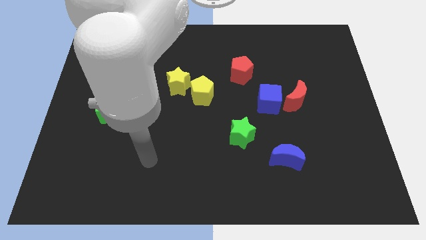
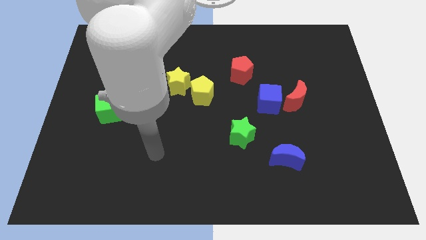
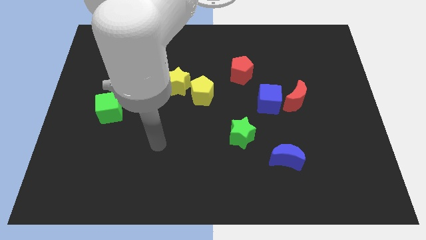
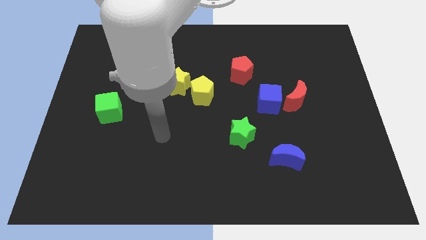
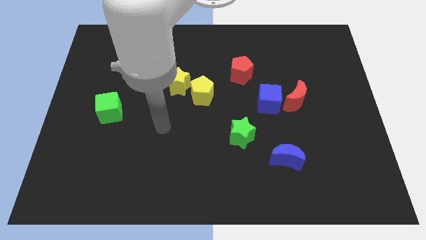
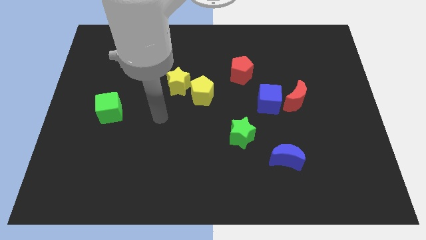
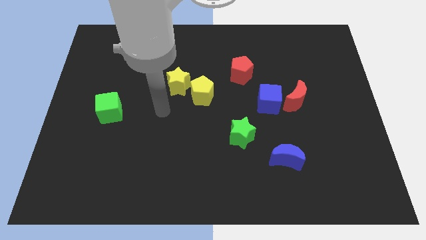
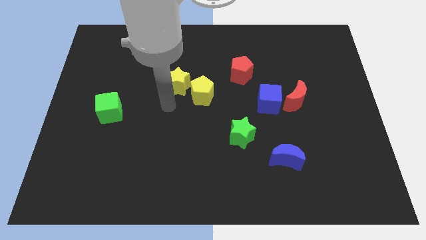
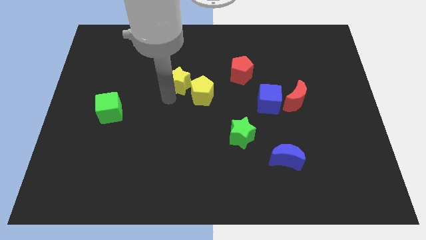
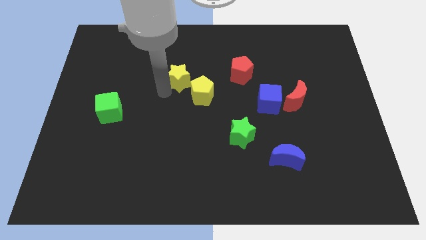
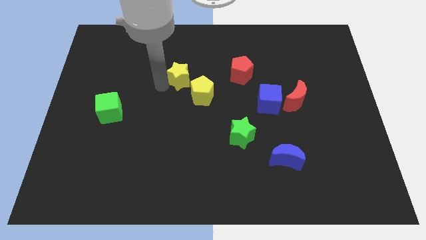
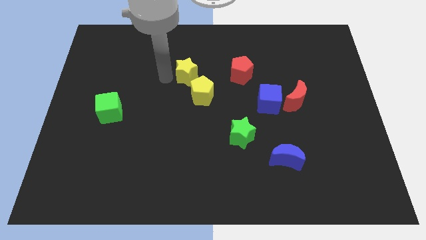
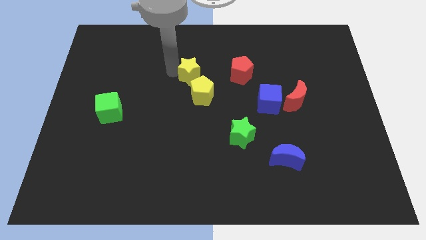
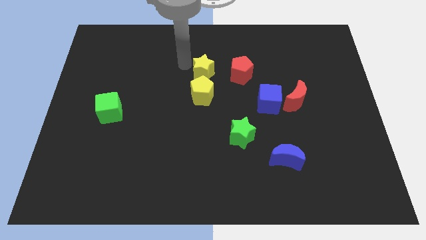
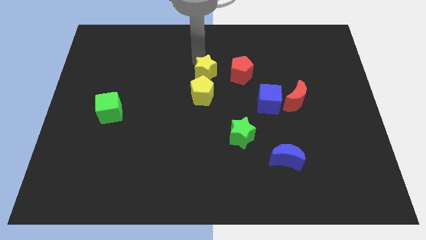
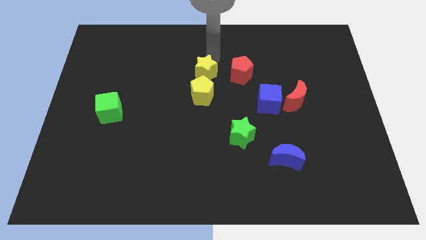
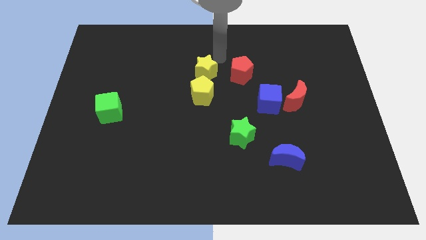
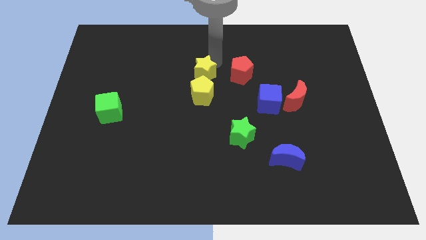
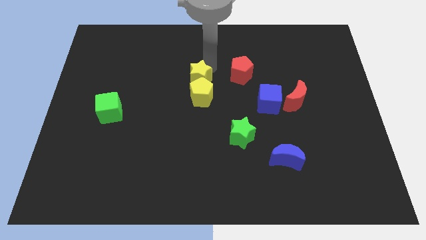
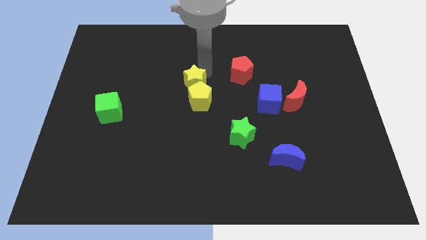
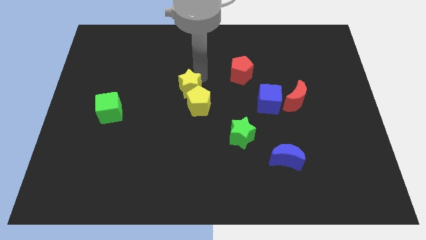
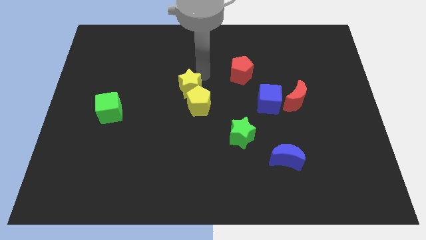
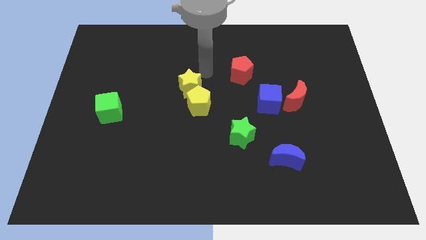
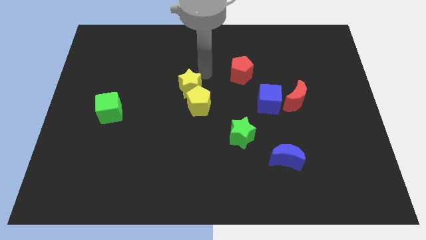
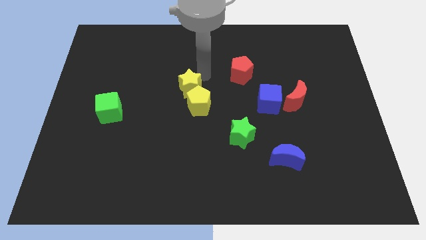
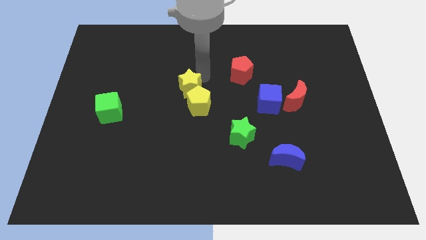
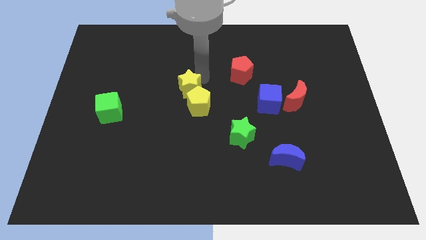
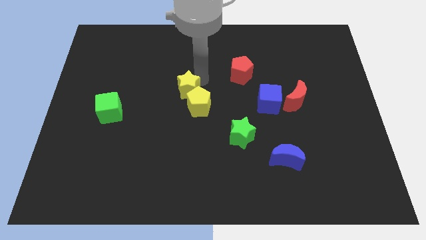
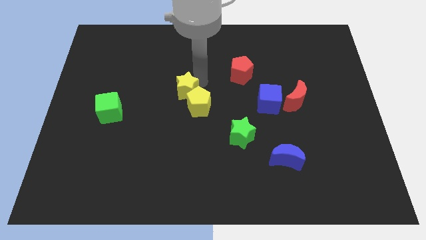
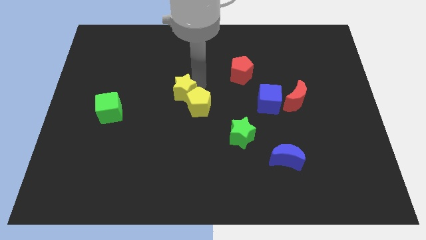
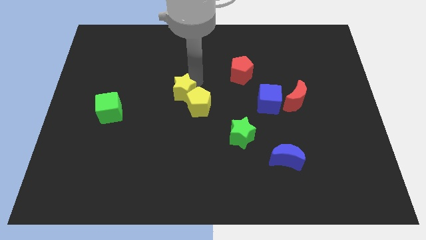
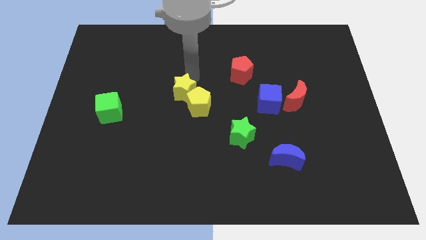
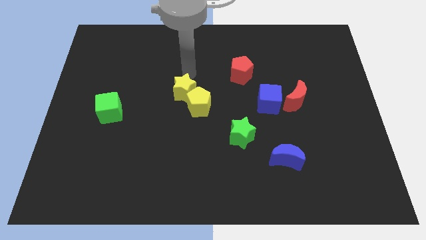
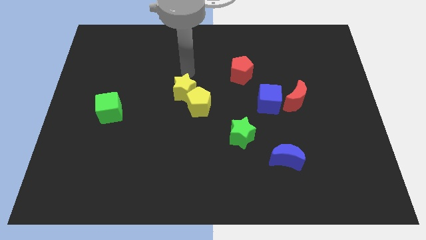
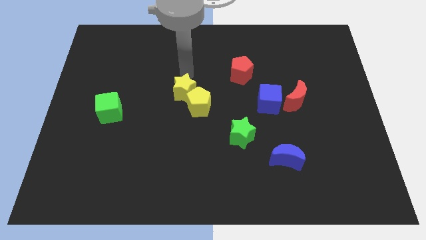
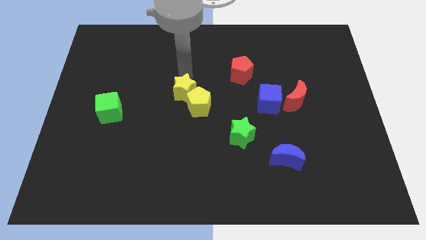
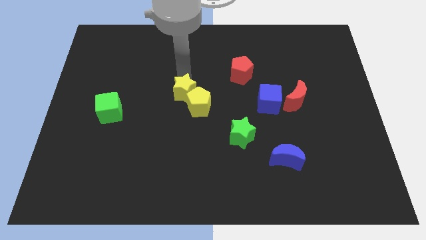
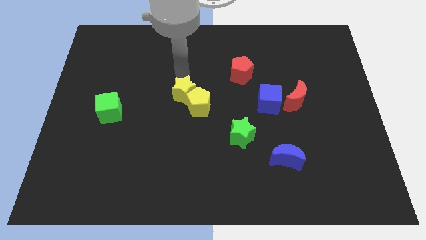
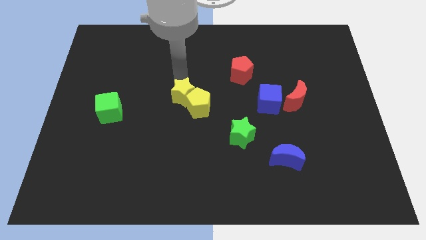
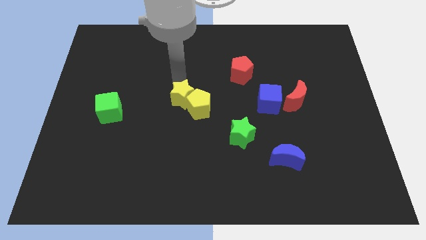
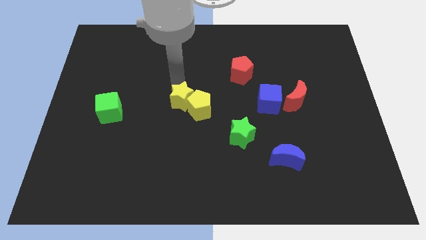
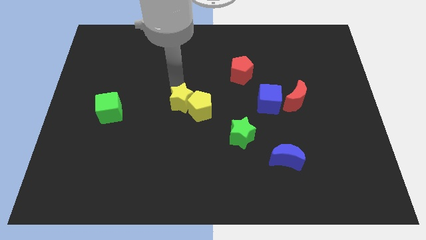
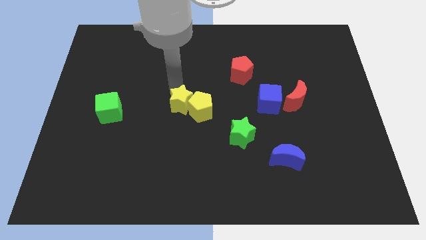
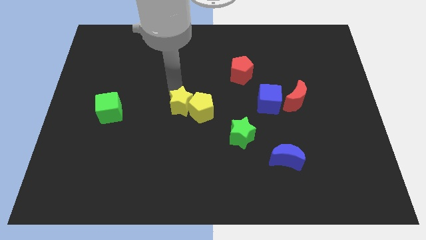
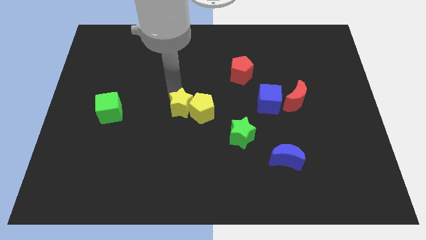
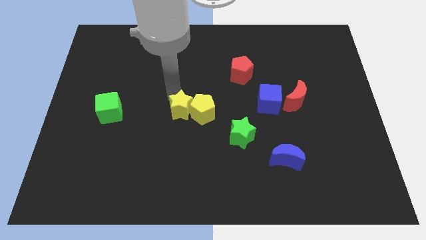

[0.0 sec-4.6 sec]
slide the yellow star down a bit

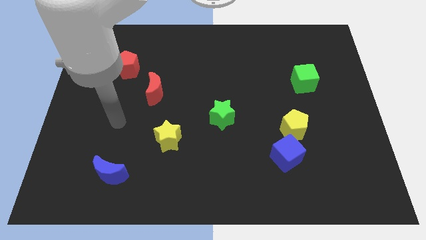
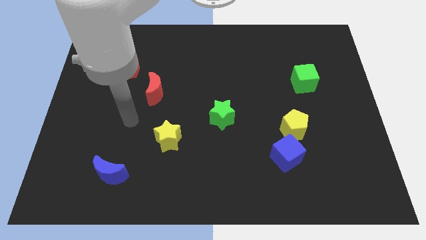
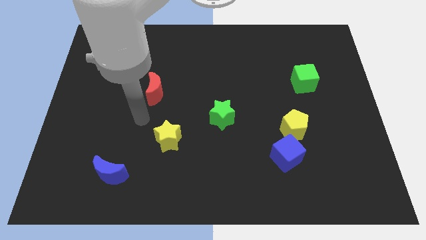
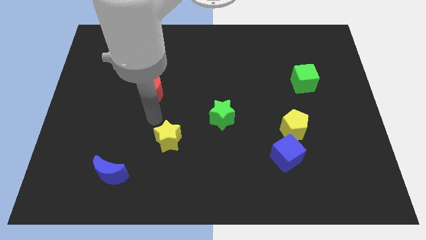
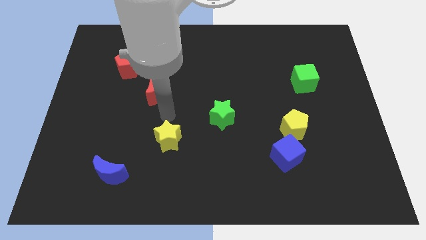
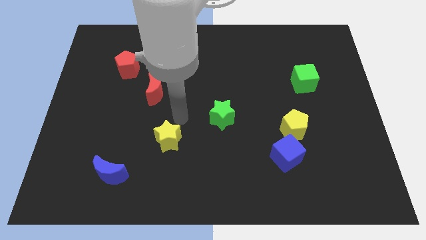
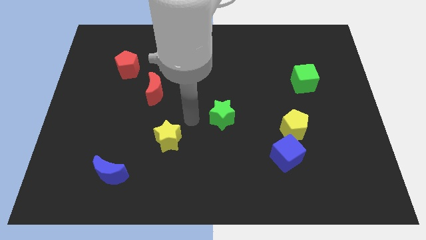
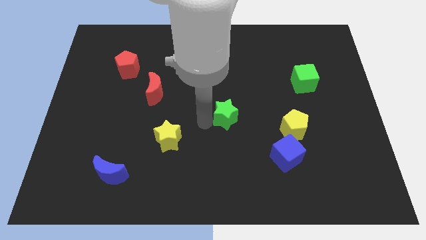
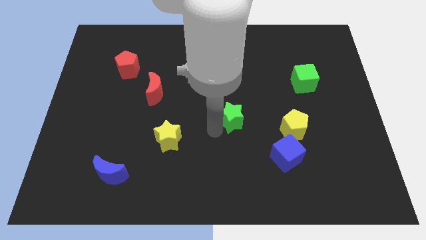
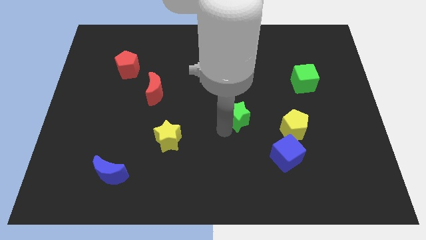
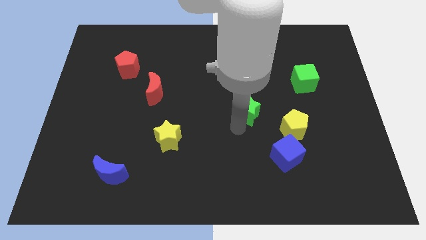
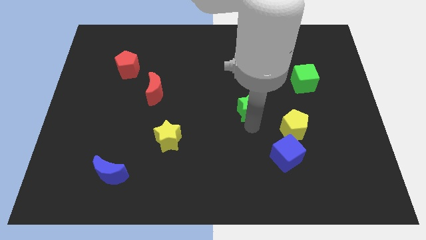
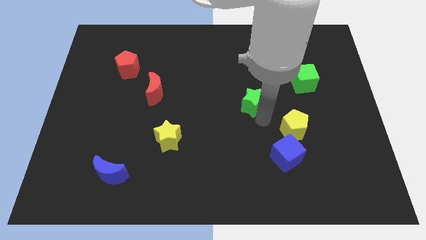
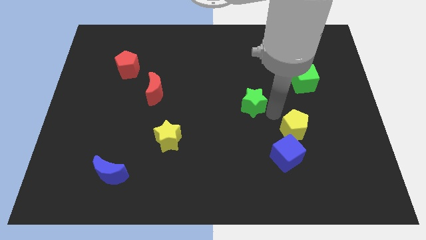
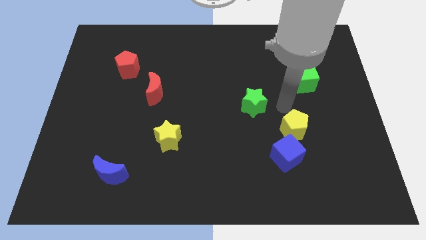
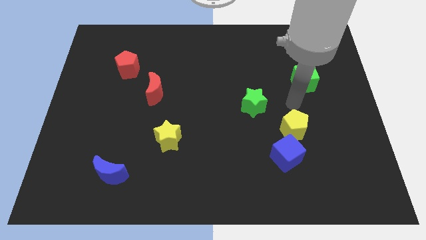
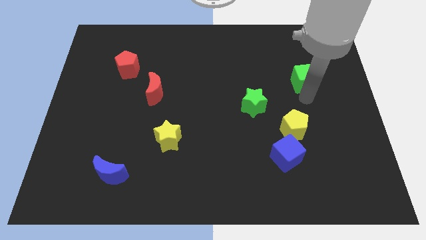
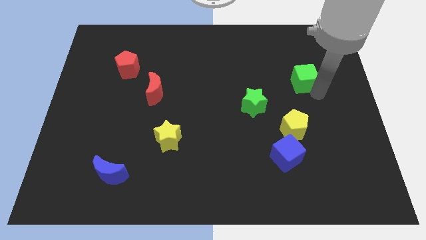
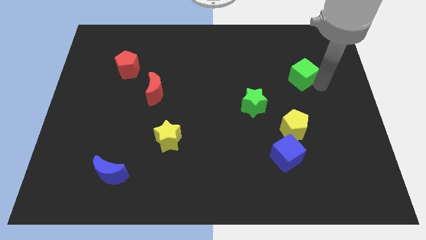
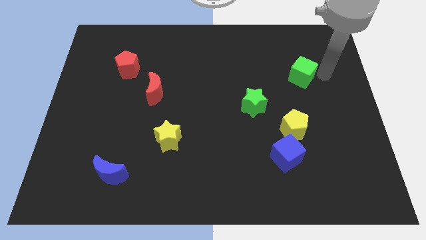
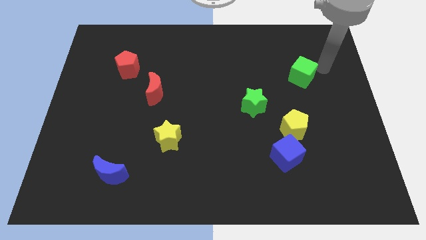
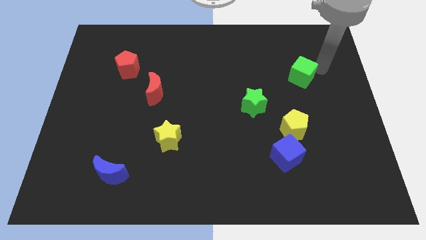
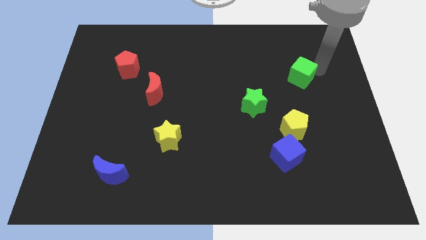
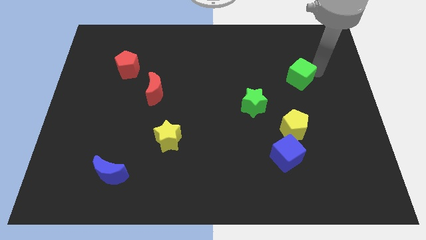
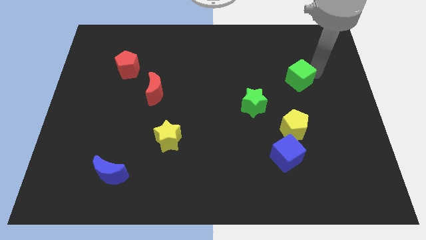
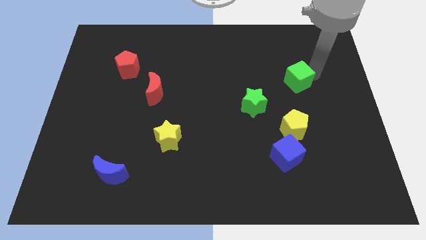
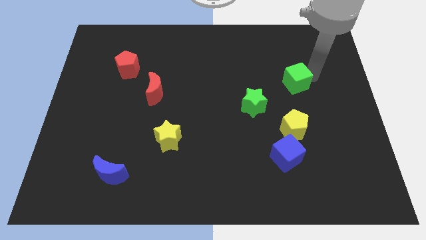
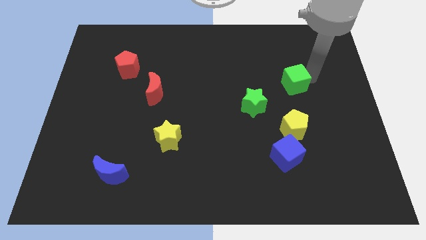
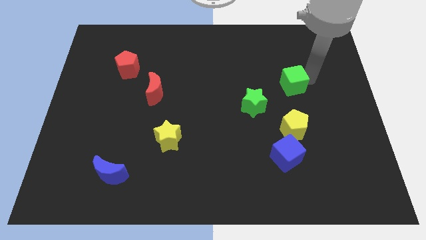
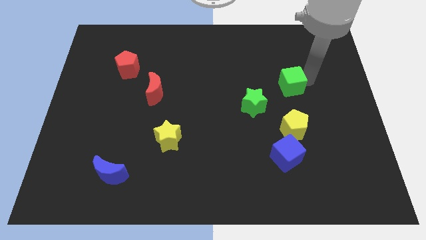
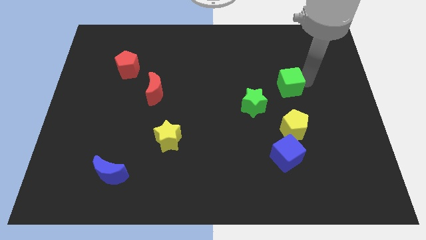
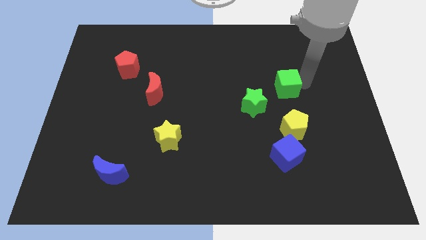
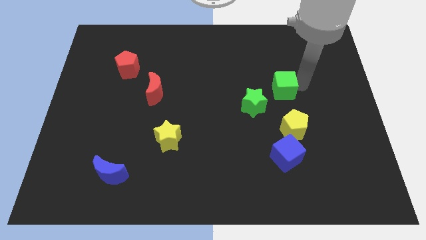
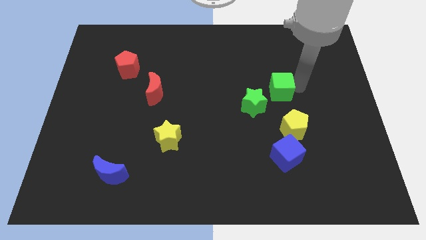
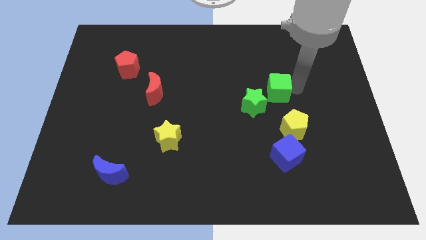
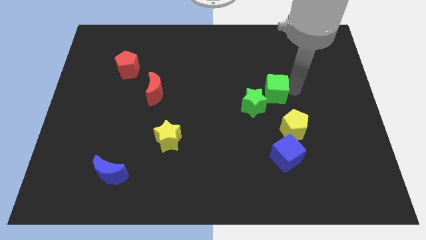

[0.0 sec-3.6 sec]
slightly move the green cube left
